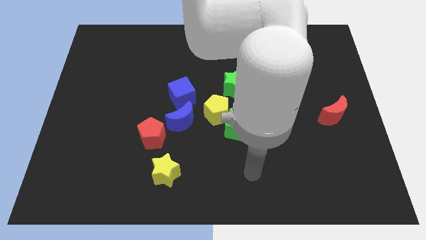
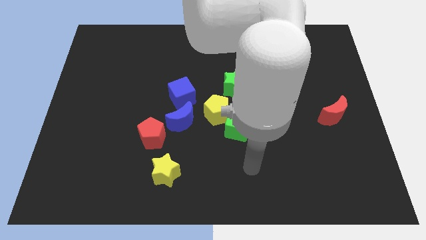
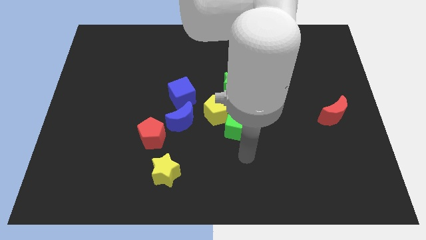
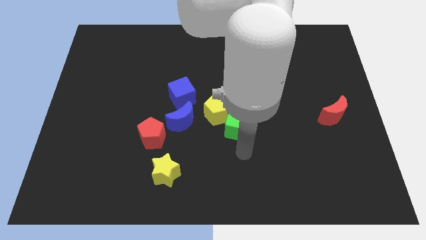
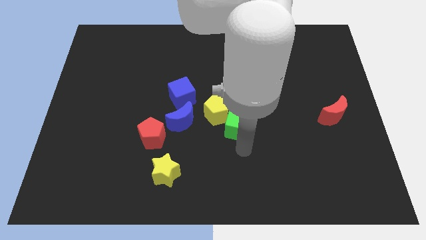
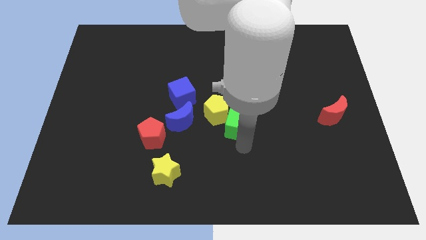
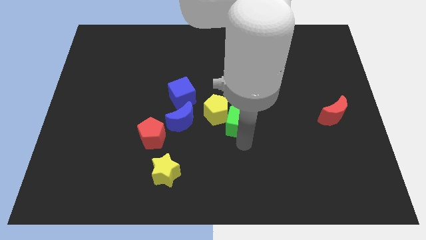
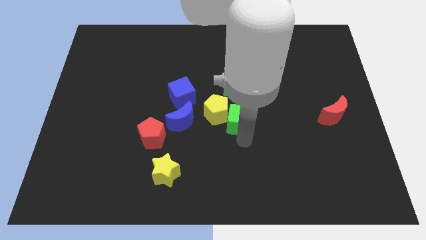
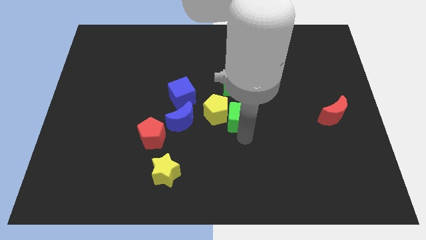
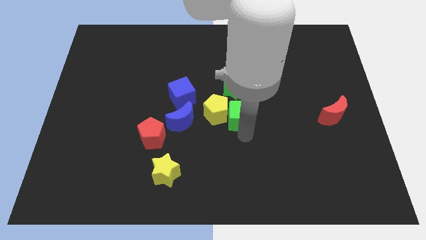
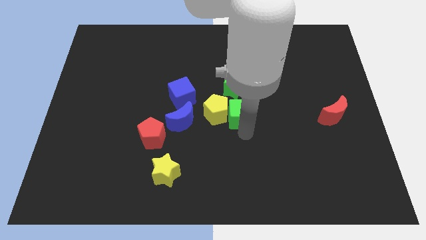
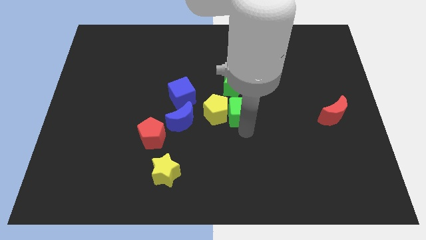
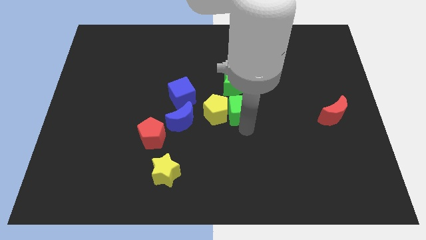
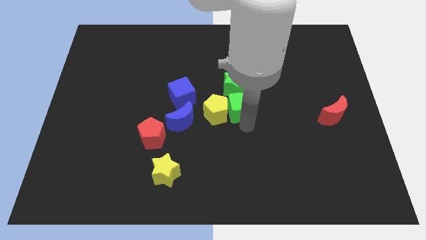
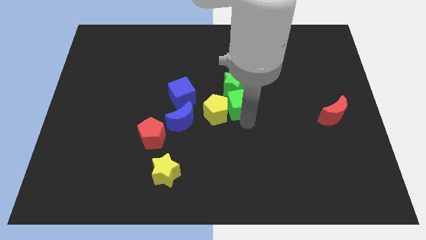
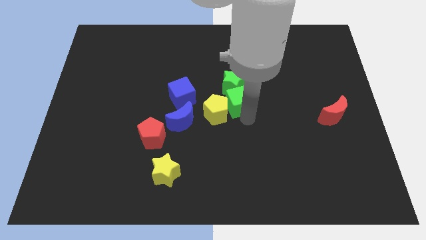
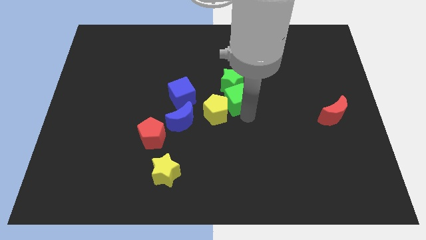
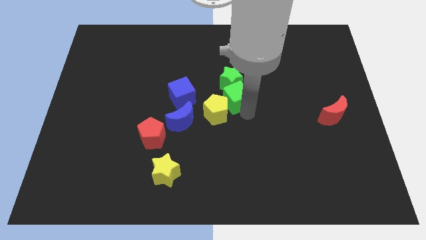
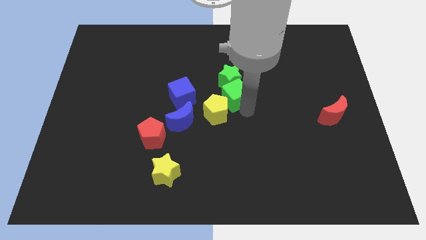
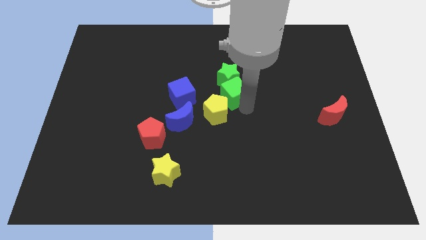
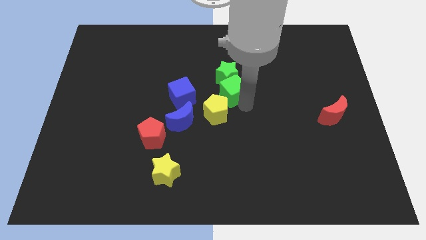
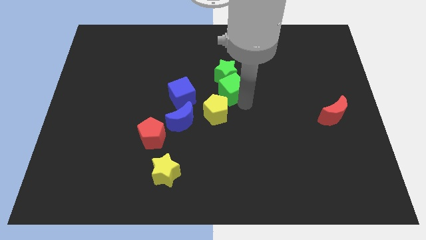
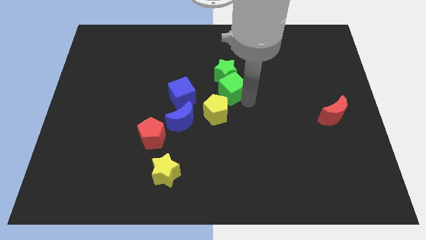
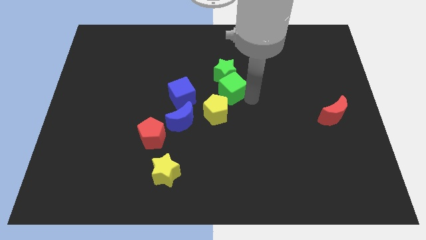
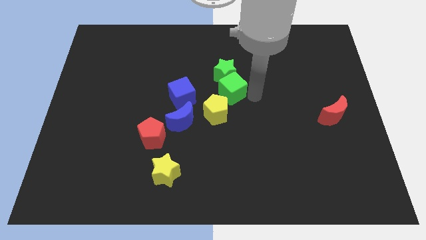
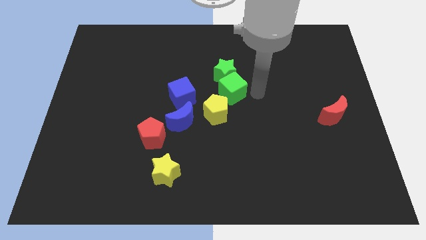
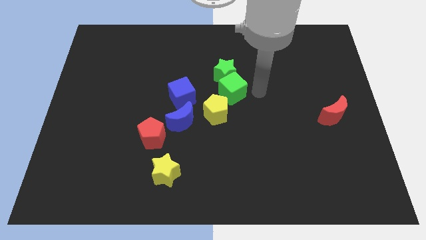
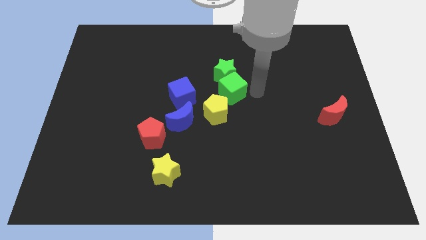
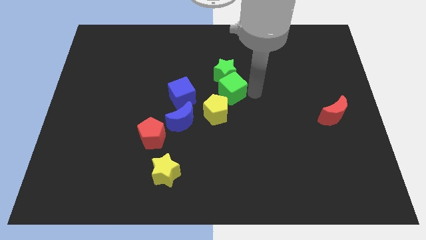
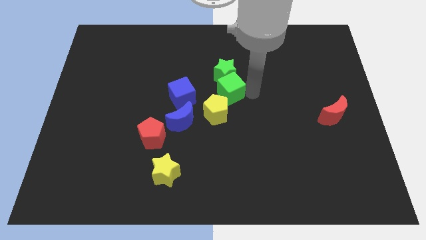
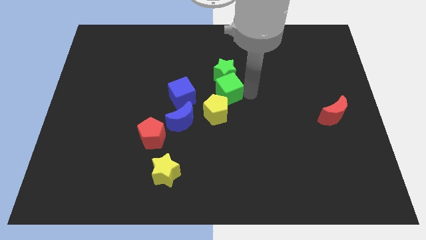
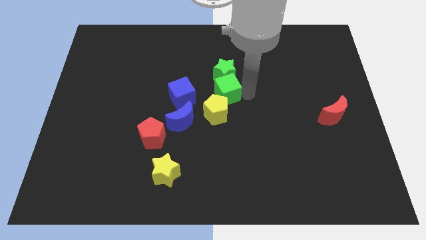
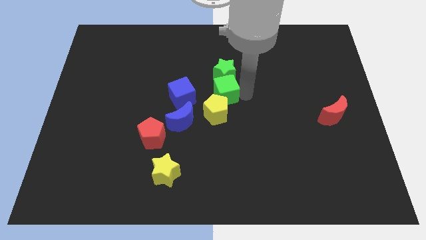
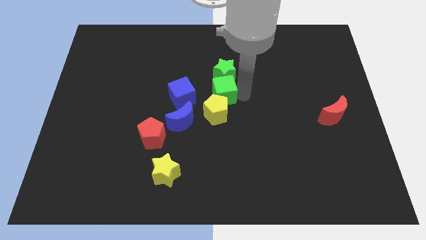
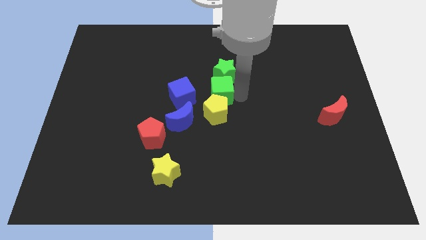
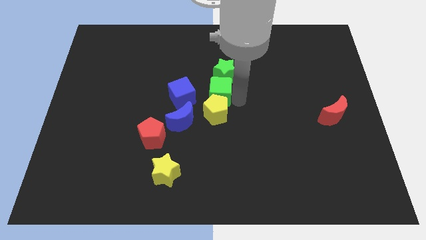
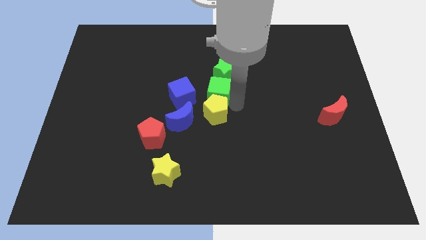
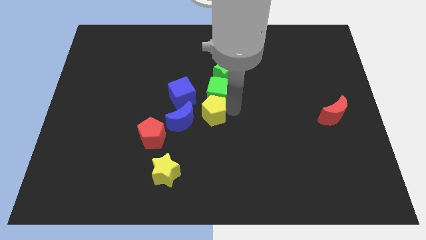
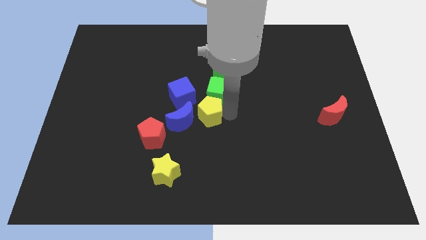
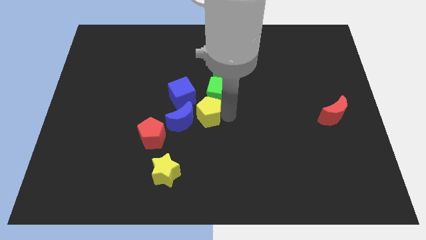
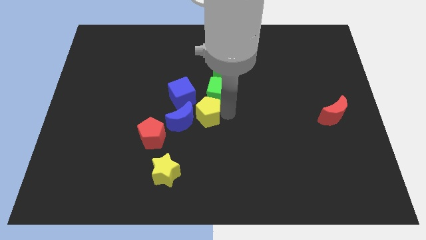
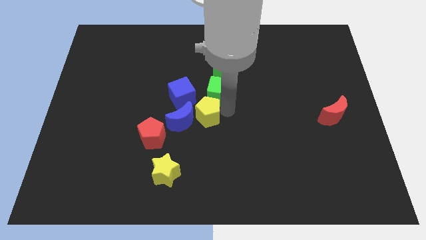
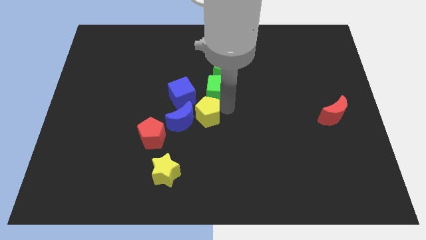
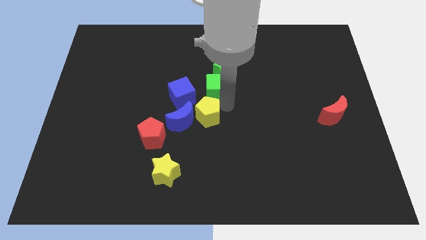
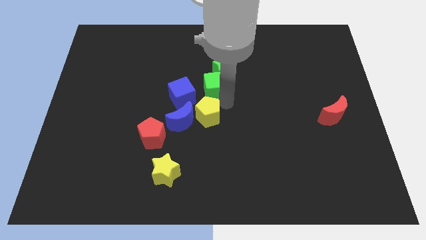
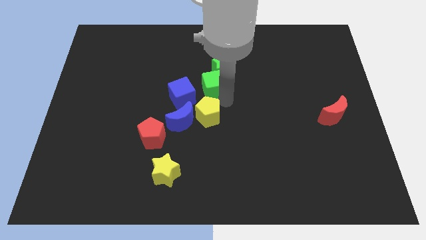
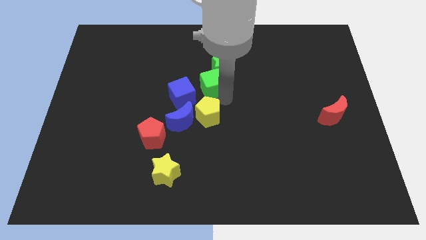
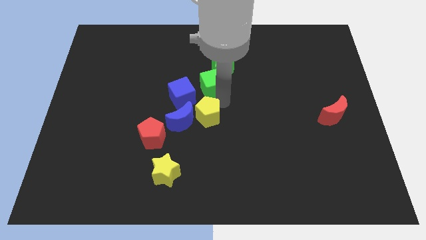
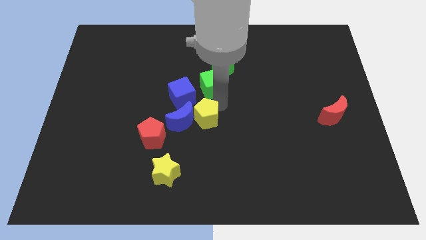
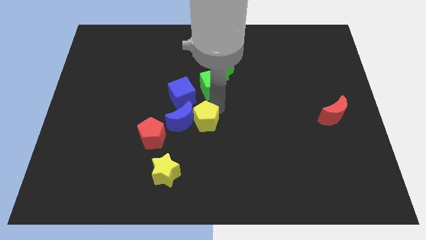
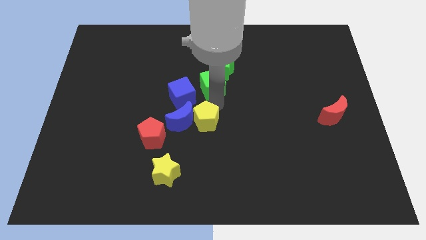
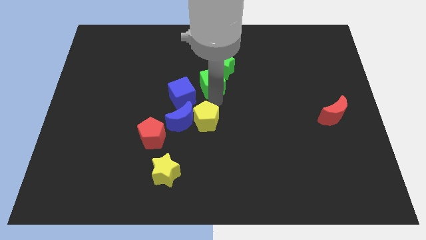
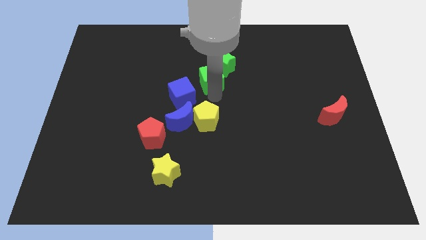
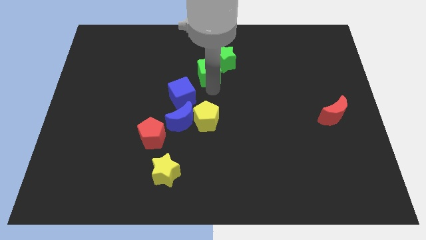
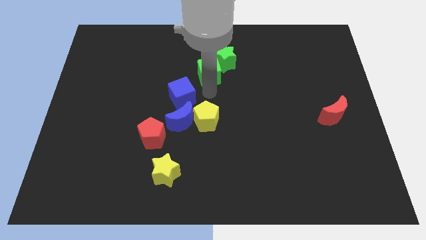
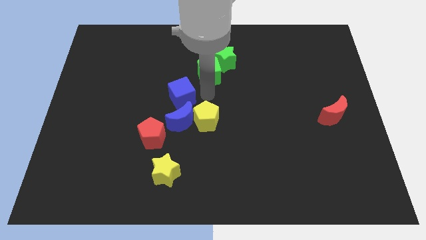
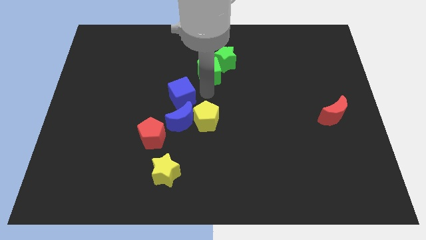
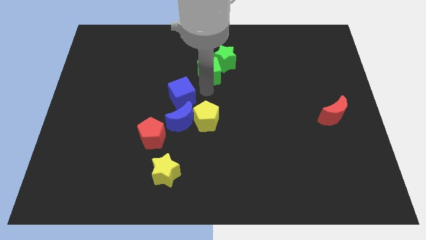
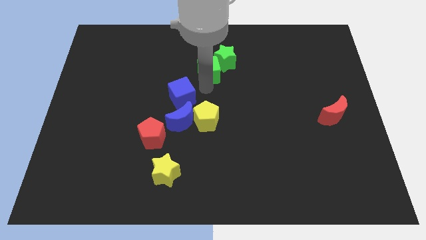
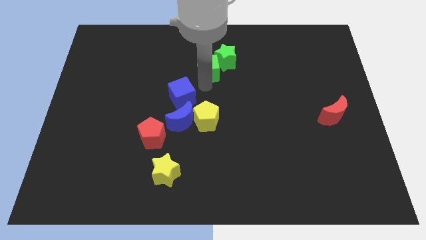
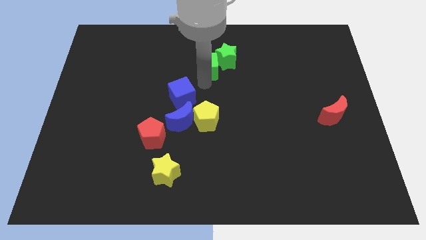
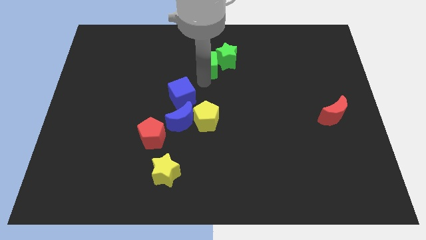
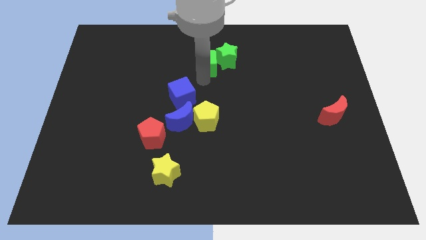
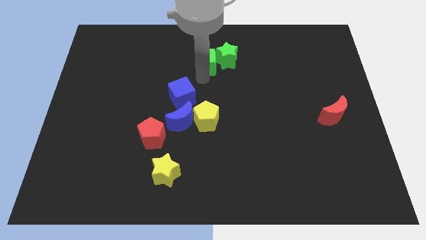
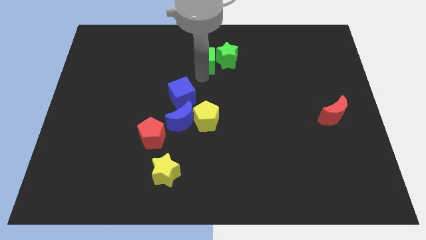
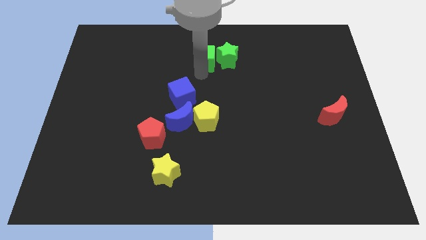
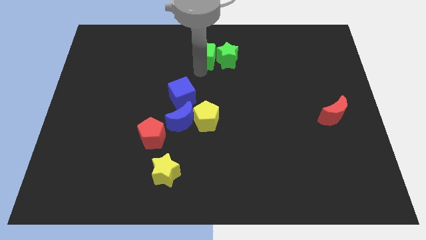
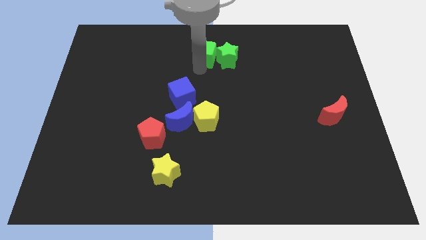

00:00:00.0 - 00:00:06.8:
put the green cube to the towards your base
